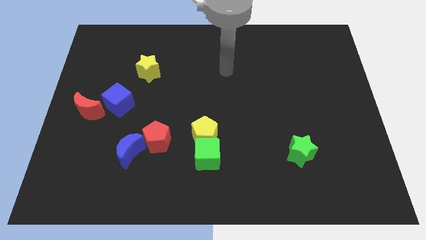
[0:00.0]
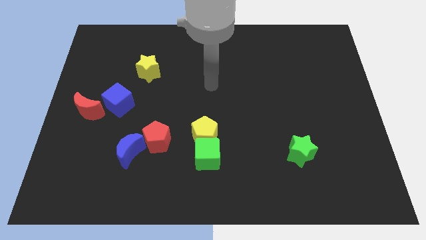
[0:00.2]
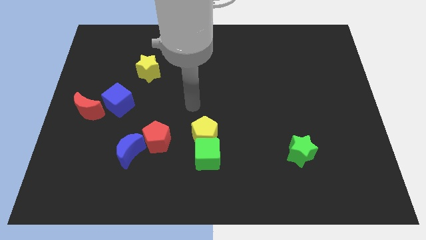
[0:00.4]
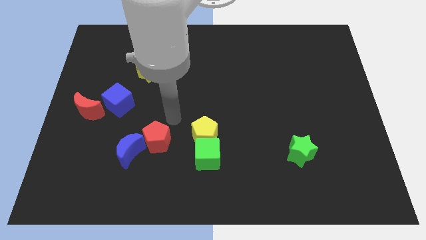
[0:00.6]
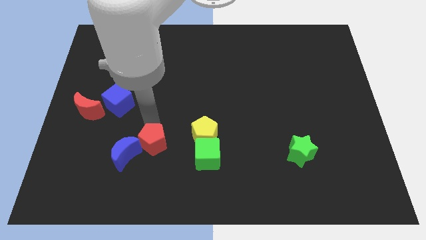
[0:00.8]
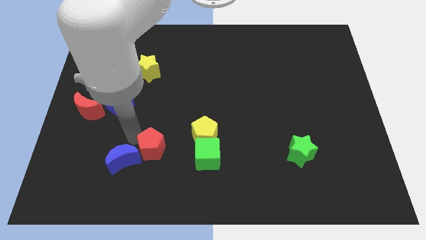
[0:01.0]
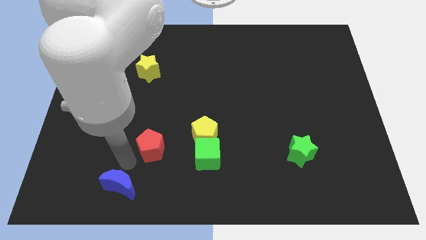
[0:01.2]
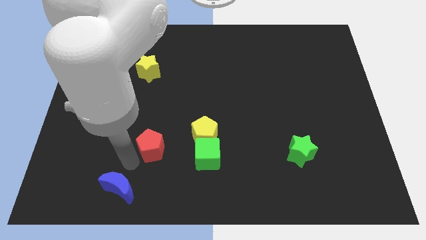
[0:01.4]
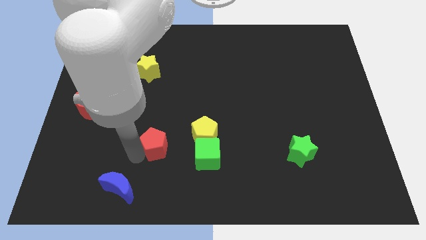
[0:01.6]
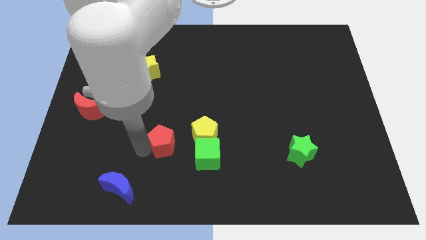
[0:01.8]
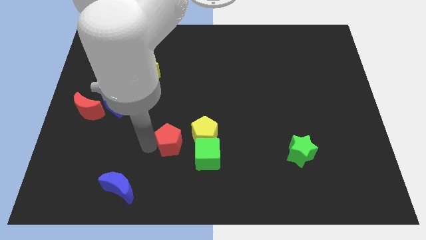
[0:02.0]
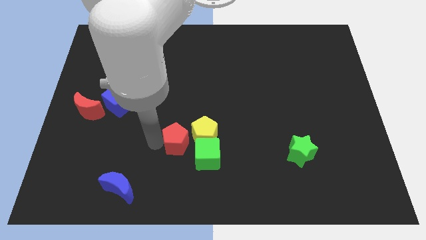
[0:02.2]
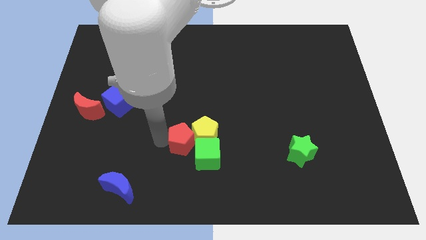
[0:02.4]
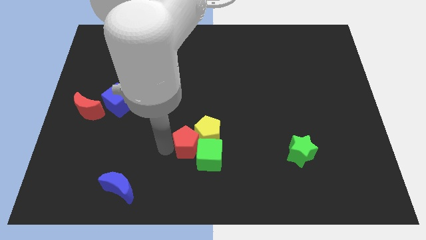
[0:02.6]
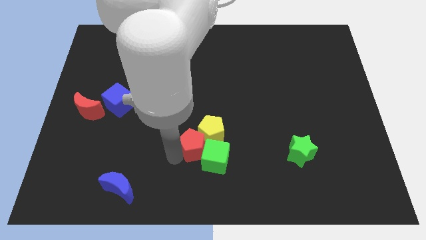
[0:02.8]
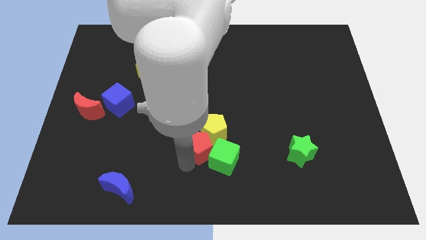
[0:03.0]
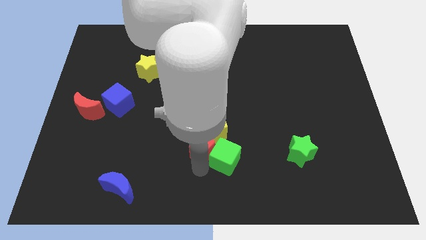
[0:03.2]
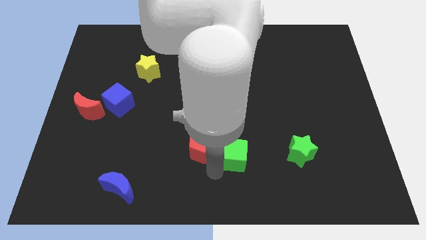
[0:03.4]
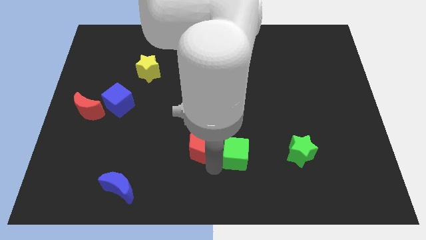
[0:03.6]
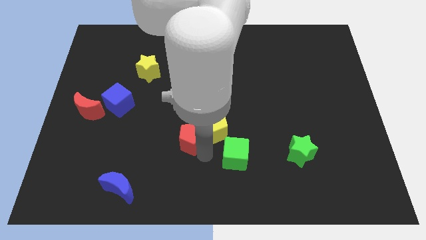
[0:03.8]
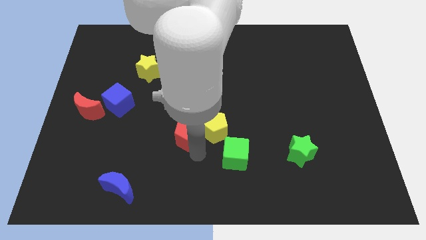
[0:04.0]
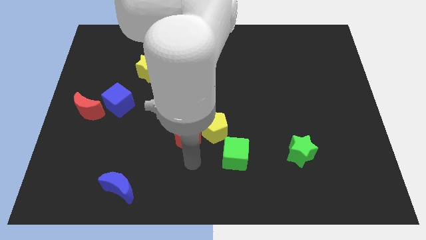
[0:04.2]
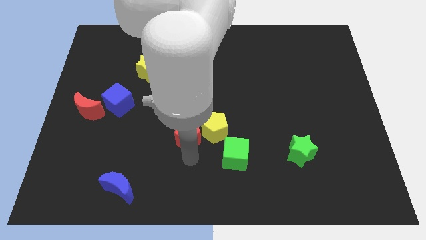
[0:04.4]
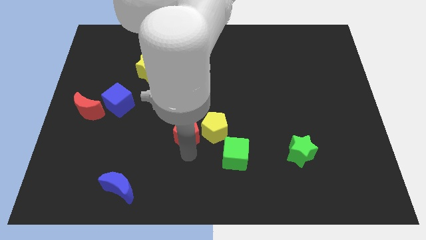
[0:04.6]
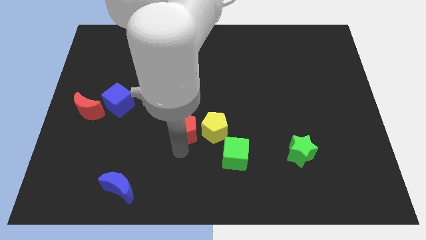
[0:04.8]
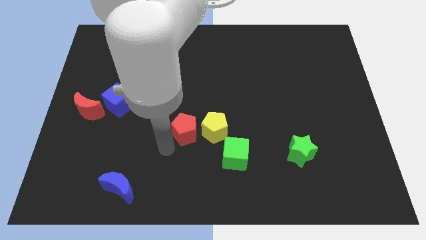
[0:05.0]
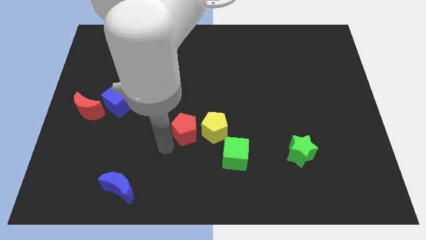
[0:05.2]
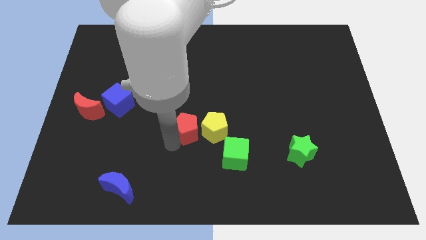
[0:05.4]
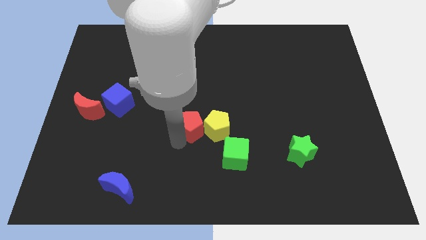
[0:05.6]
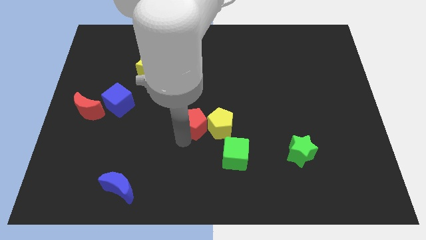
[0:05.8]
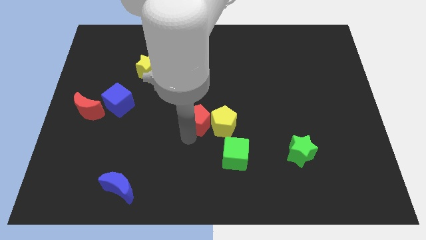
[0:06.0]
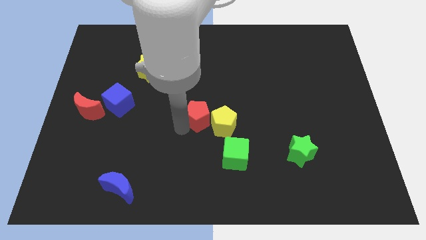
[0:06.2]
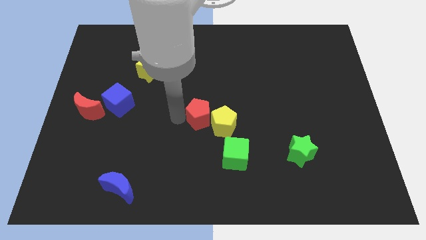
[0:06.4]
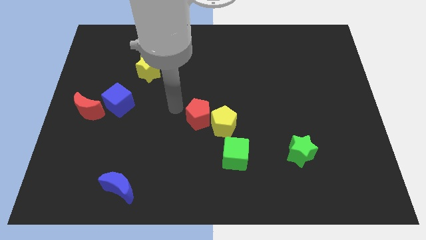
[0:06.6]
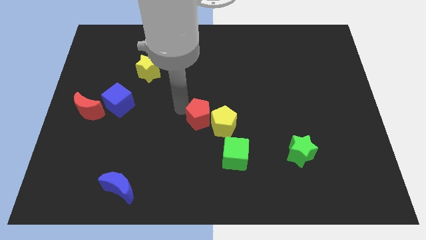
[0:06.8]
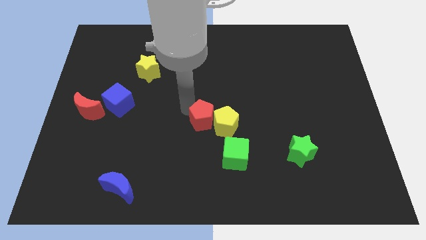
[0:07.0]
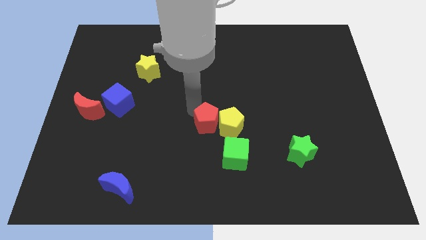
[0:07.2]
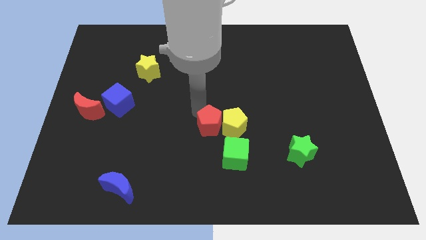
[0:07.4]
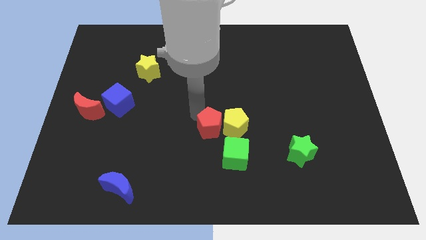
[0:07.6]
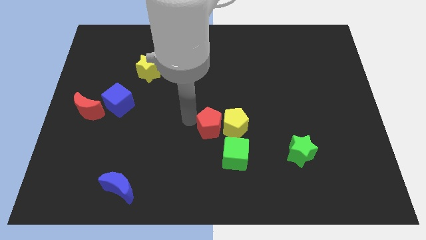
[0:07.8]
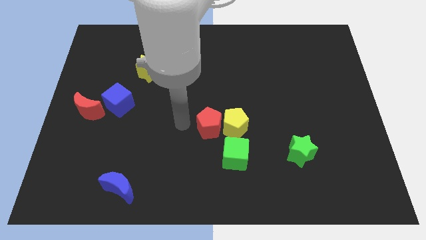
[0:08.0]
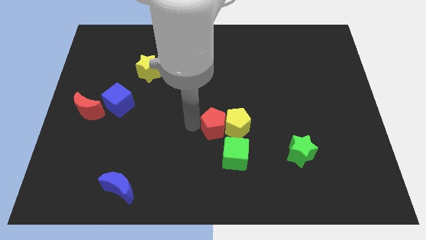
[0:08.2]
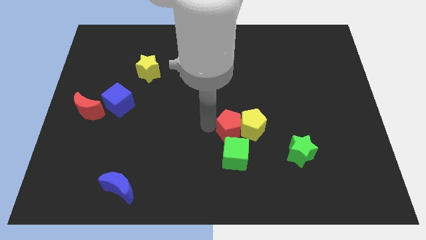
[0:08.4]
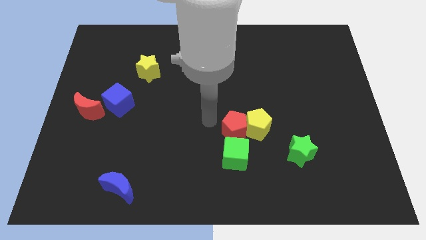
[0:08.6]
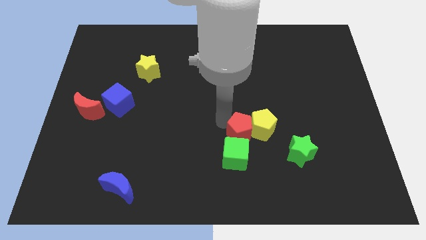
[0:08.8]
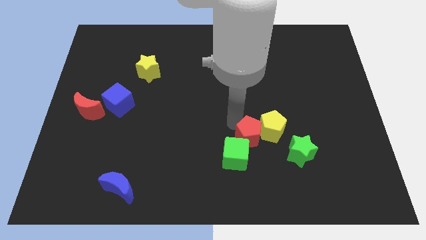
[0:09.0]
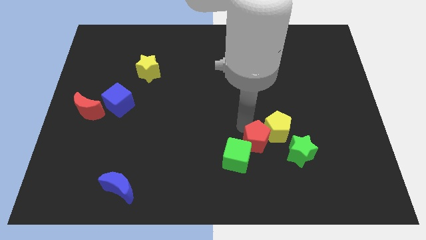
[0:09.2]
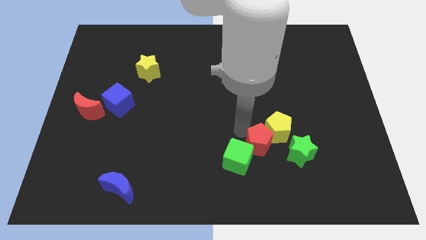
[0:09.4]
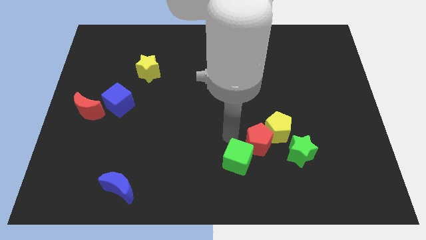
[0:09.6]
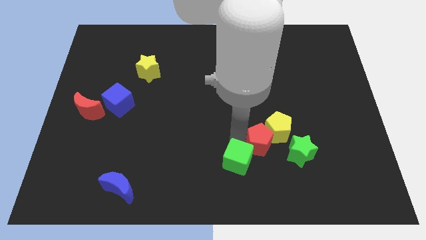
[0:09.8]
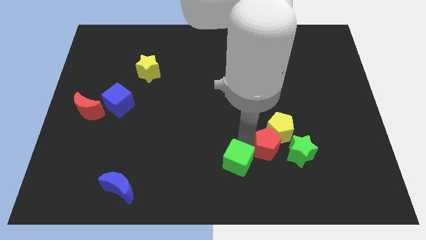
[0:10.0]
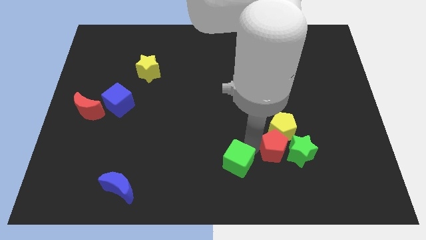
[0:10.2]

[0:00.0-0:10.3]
slide the red pentagon to the green star

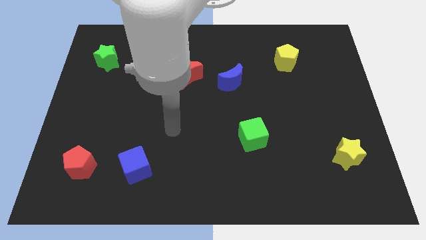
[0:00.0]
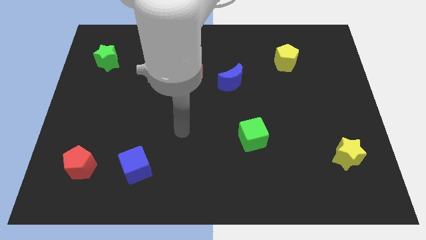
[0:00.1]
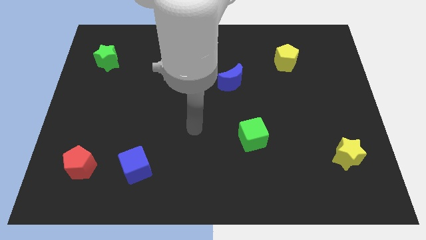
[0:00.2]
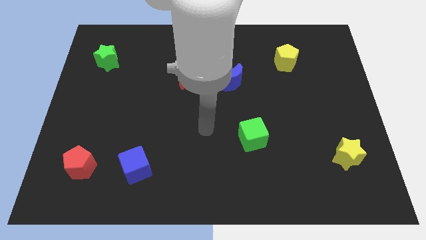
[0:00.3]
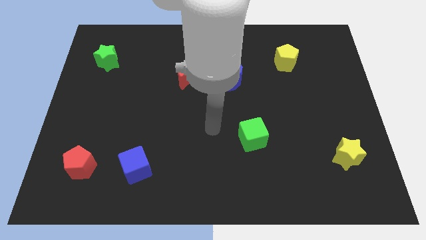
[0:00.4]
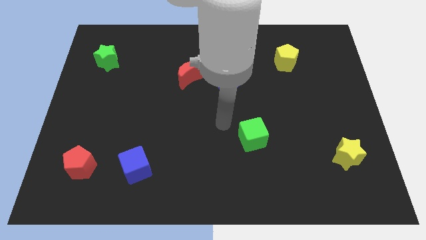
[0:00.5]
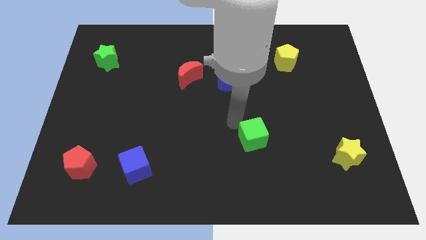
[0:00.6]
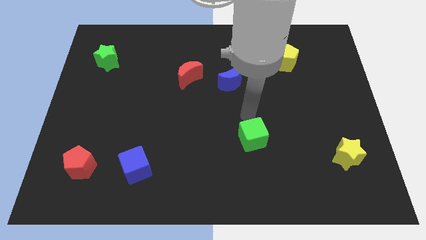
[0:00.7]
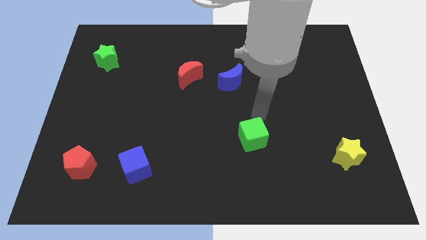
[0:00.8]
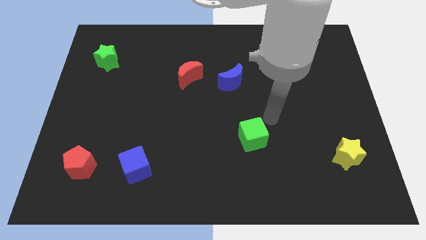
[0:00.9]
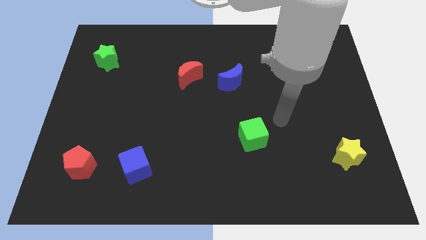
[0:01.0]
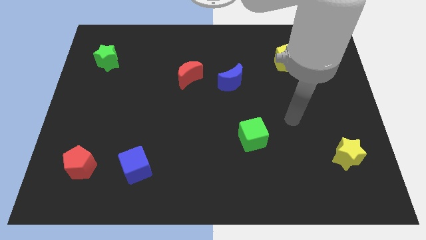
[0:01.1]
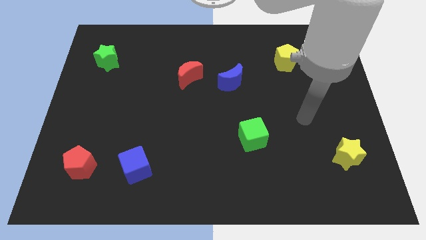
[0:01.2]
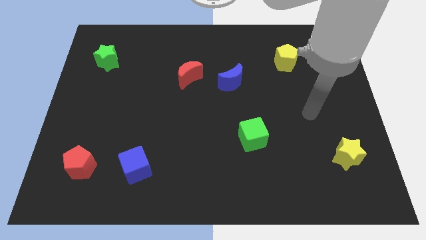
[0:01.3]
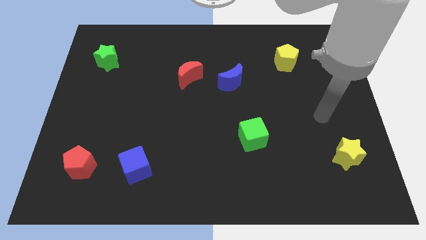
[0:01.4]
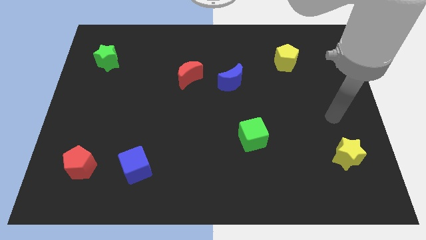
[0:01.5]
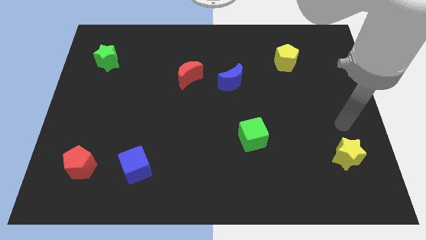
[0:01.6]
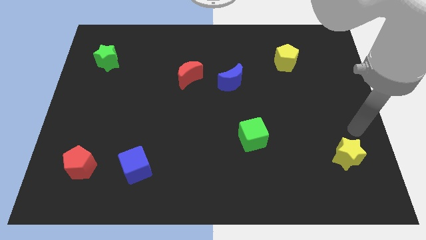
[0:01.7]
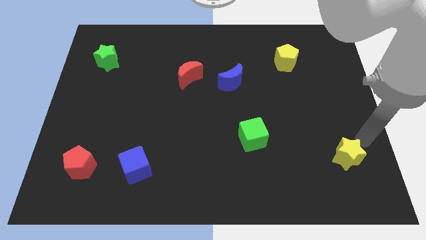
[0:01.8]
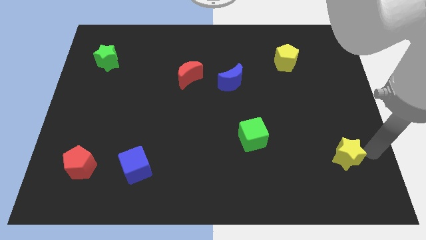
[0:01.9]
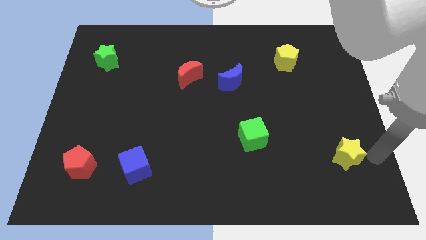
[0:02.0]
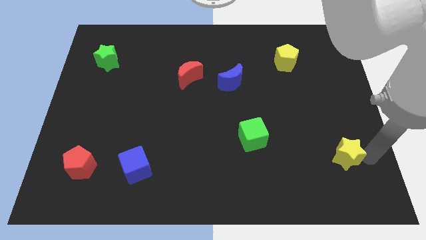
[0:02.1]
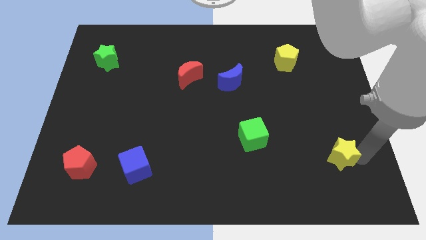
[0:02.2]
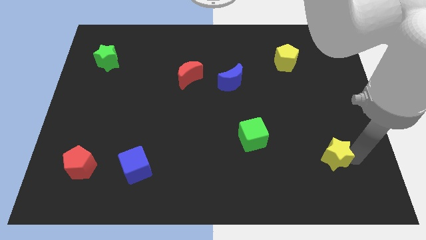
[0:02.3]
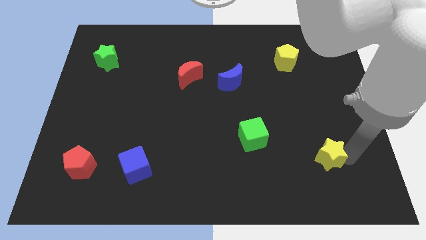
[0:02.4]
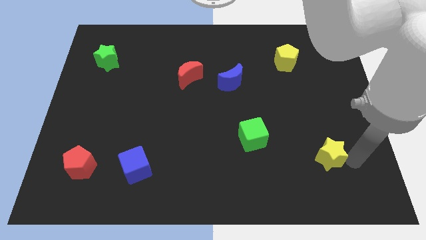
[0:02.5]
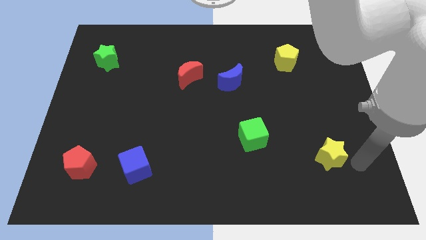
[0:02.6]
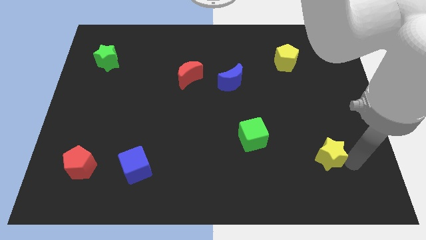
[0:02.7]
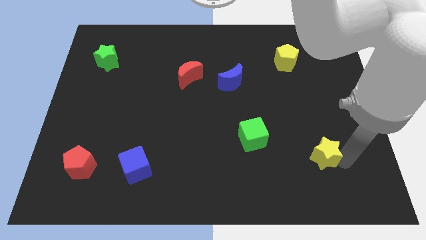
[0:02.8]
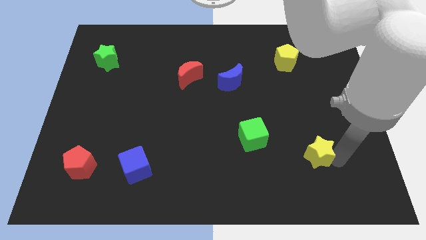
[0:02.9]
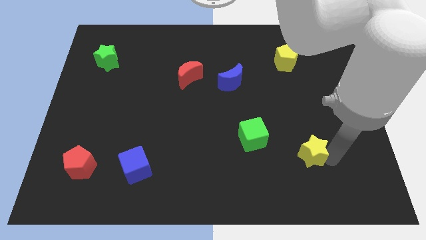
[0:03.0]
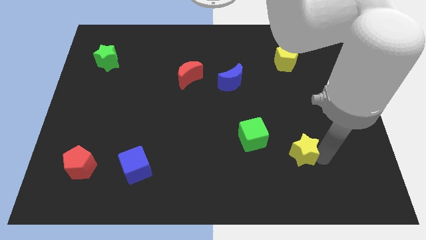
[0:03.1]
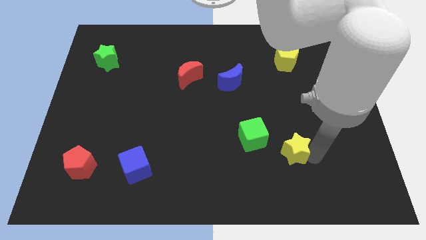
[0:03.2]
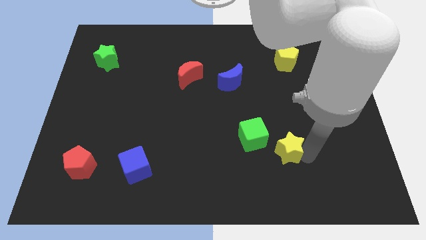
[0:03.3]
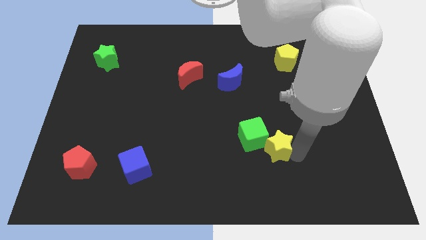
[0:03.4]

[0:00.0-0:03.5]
push the yellow star close to the green cube
